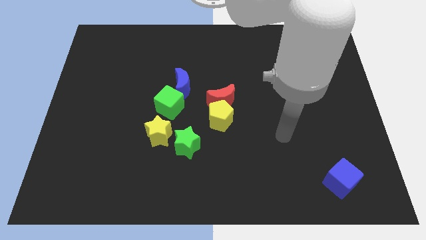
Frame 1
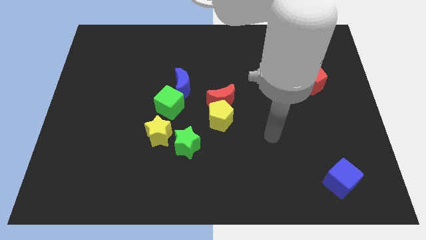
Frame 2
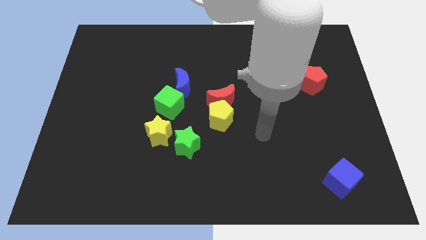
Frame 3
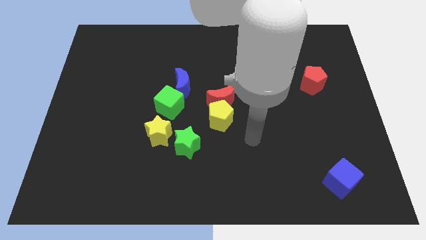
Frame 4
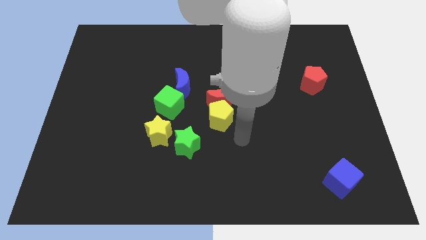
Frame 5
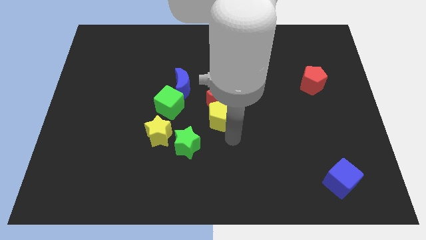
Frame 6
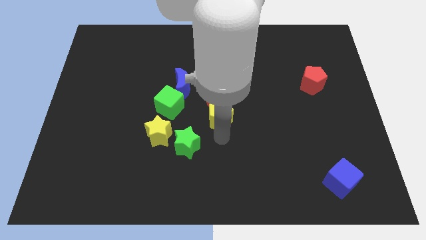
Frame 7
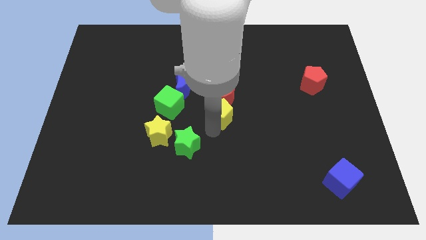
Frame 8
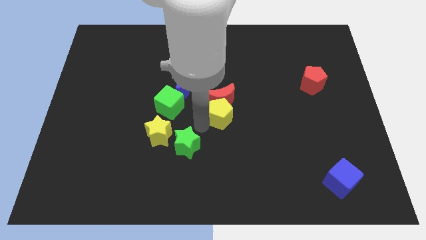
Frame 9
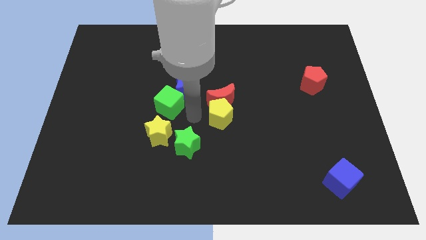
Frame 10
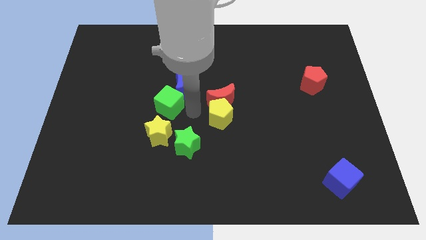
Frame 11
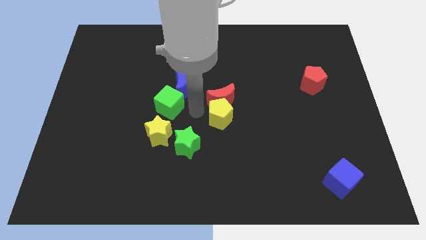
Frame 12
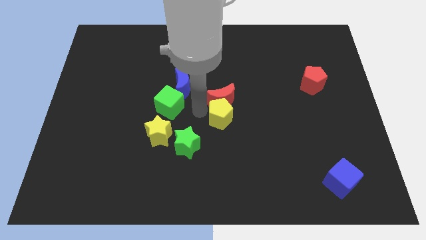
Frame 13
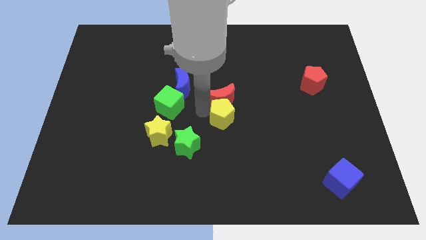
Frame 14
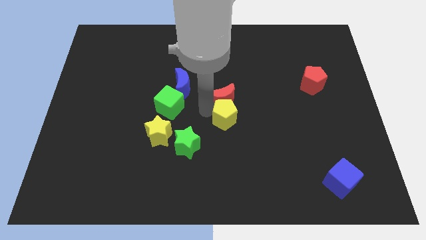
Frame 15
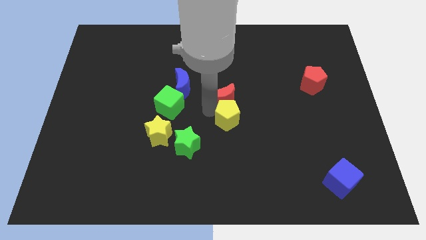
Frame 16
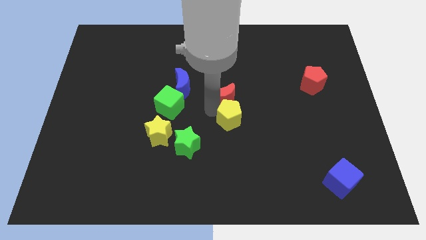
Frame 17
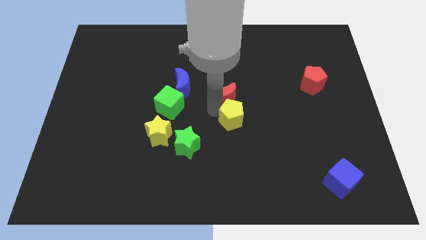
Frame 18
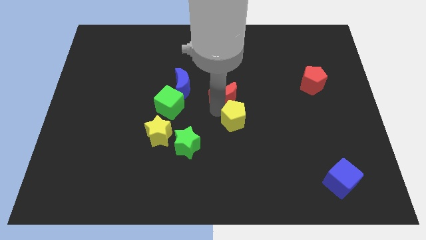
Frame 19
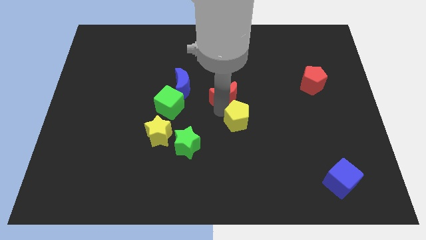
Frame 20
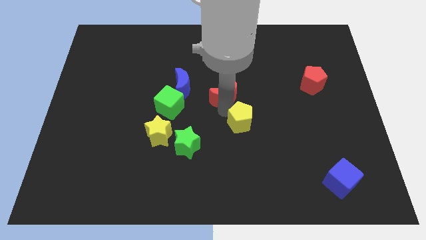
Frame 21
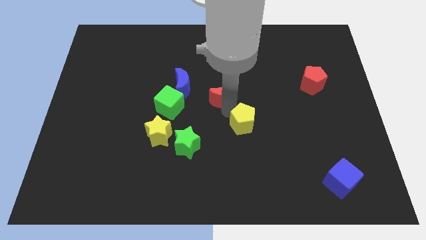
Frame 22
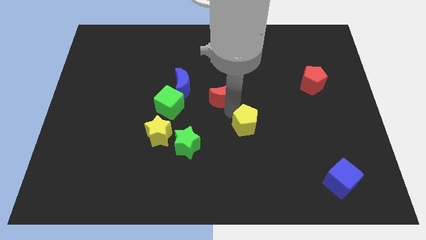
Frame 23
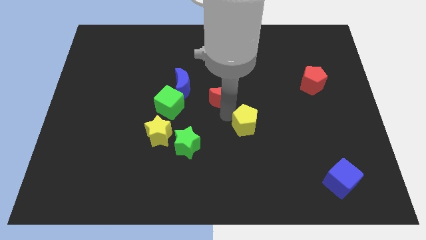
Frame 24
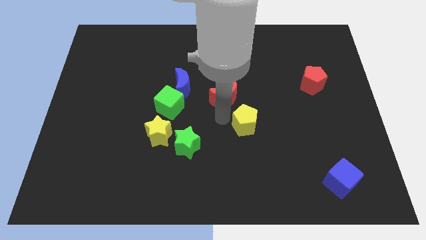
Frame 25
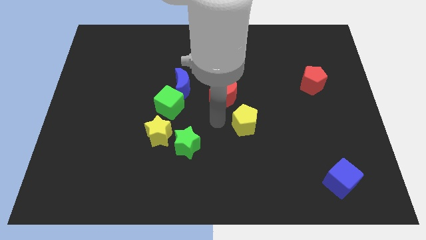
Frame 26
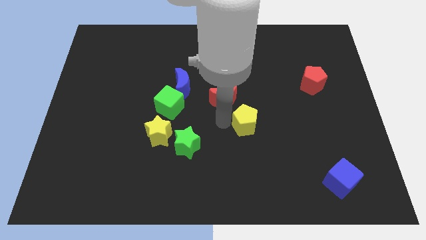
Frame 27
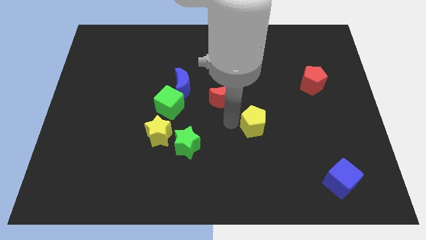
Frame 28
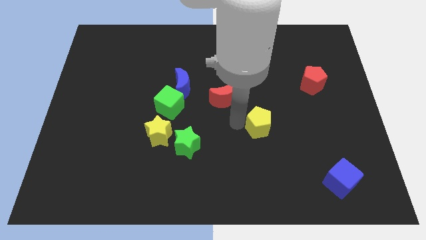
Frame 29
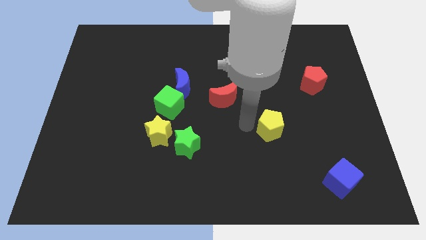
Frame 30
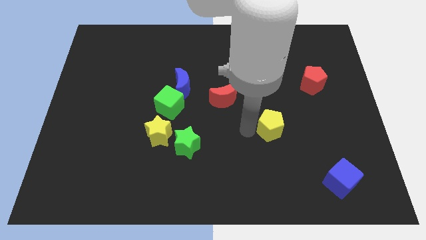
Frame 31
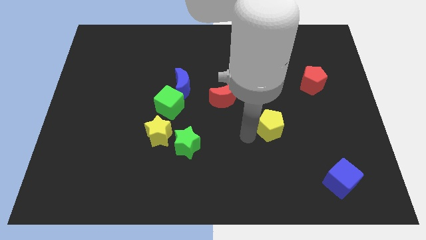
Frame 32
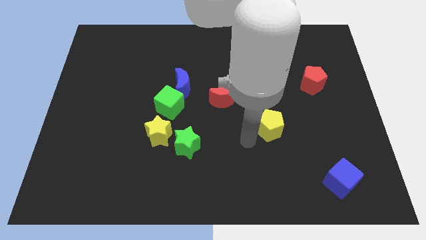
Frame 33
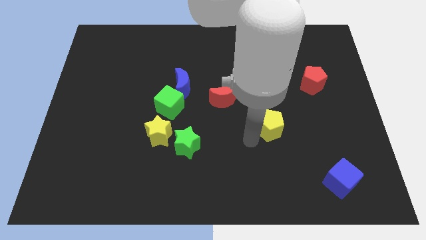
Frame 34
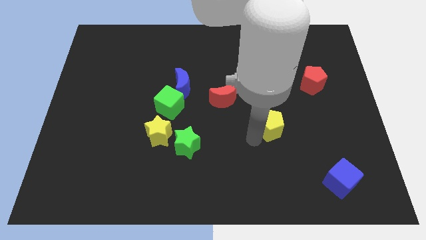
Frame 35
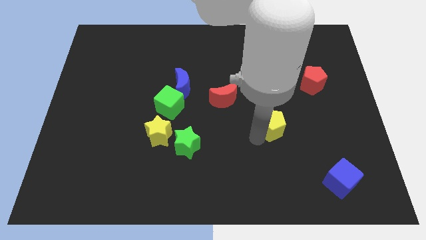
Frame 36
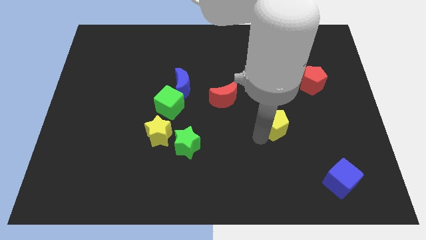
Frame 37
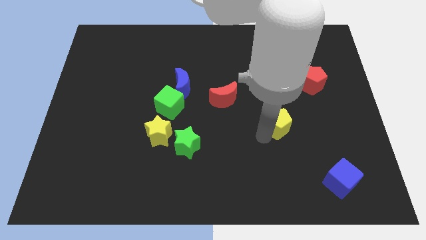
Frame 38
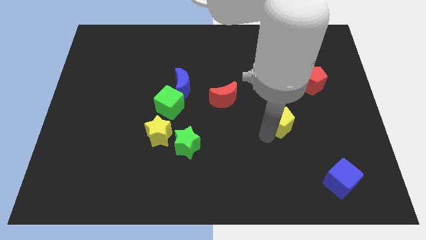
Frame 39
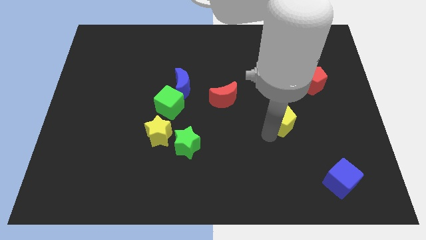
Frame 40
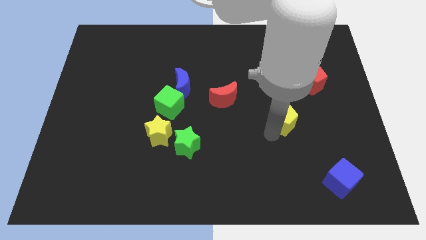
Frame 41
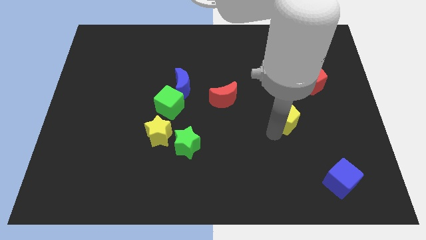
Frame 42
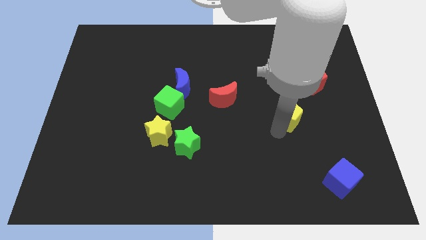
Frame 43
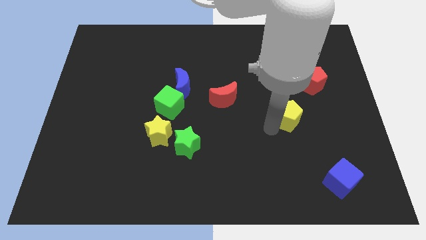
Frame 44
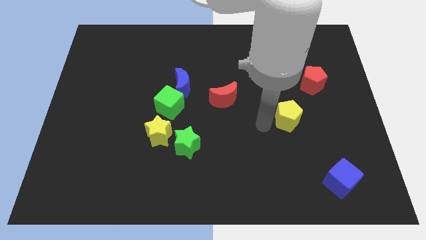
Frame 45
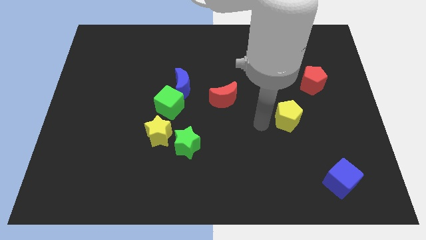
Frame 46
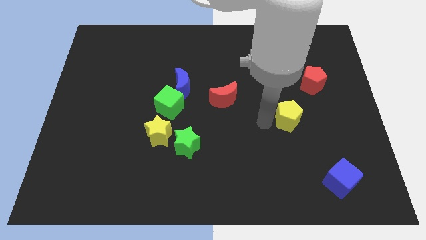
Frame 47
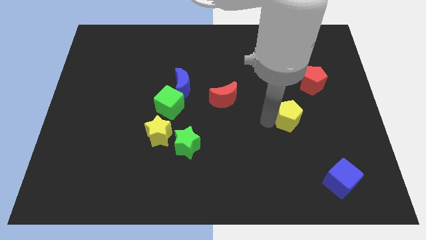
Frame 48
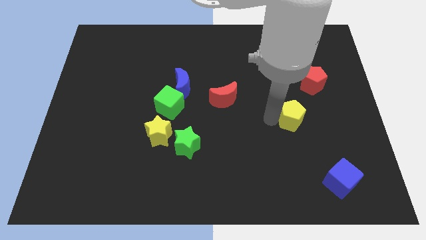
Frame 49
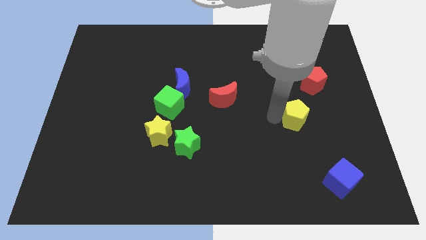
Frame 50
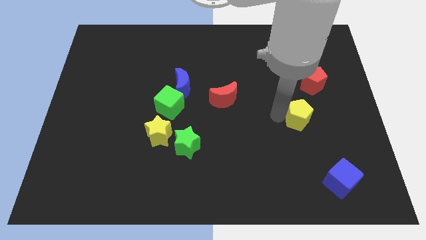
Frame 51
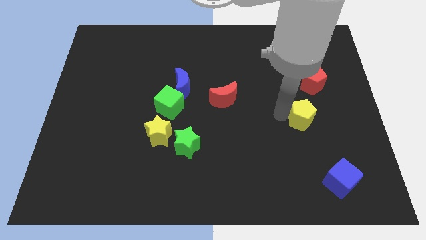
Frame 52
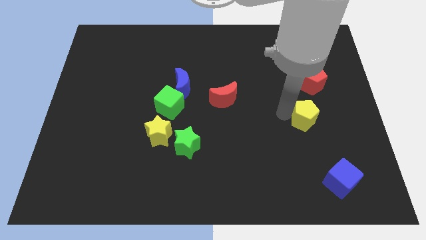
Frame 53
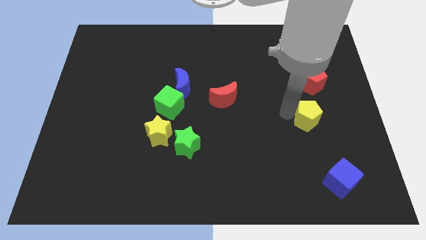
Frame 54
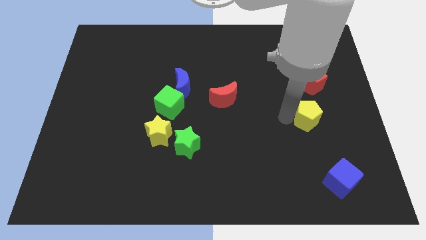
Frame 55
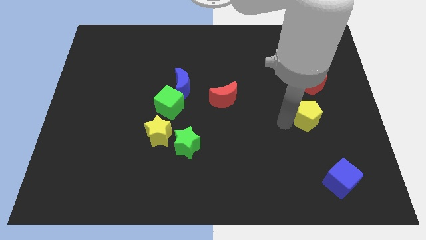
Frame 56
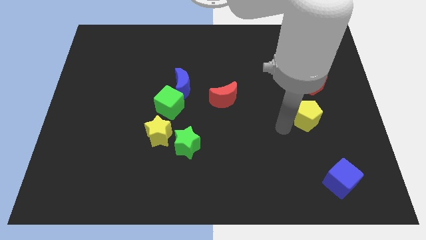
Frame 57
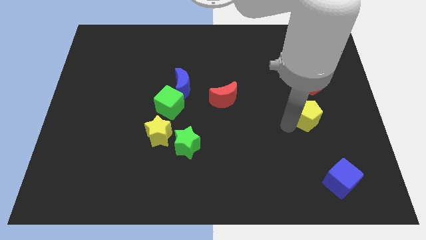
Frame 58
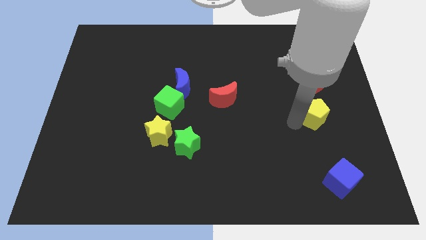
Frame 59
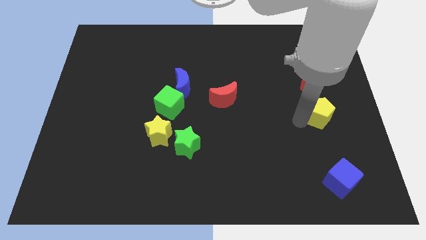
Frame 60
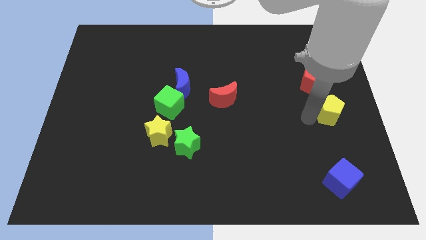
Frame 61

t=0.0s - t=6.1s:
slide the yellow pentagon to the right side of the board

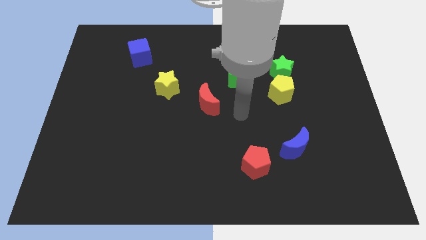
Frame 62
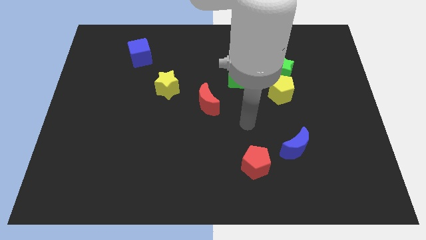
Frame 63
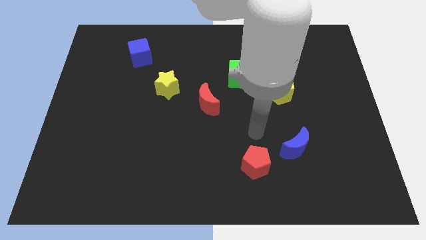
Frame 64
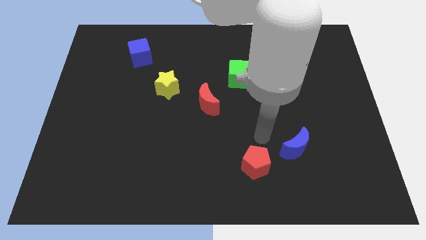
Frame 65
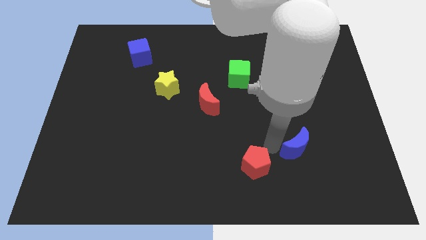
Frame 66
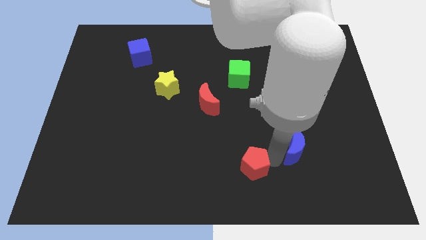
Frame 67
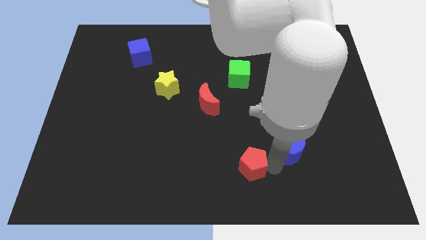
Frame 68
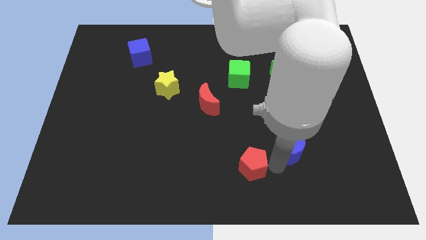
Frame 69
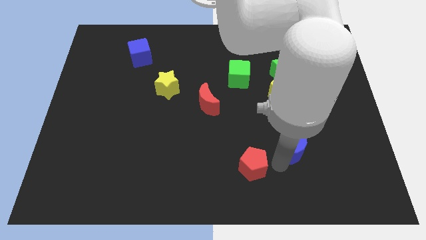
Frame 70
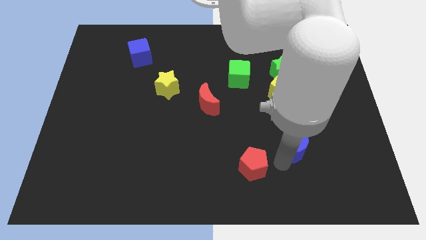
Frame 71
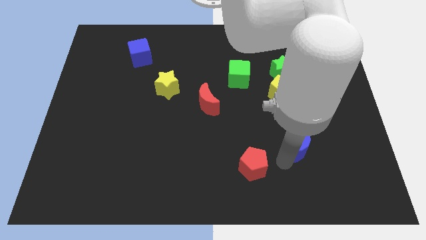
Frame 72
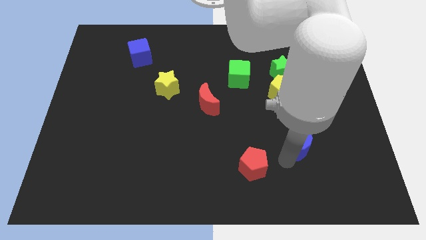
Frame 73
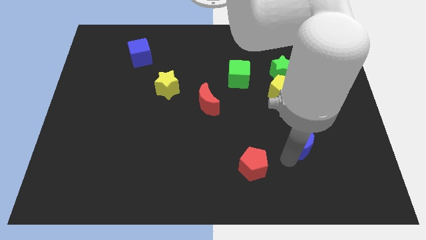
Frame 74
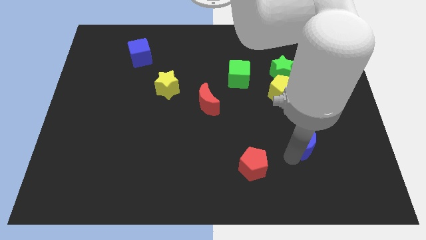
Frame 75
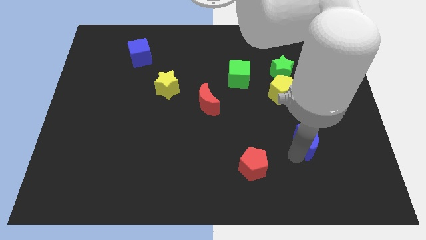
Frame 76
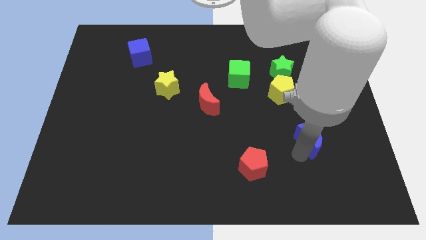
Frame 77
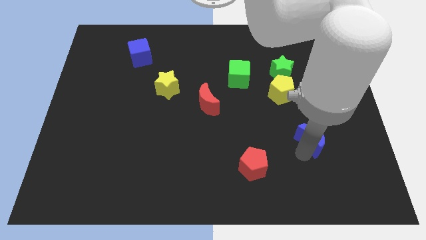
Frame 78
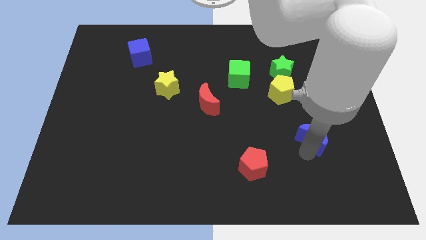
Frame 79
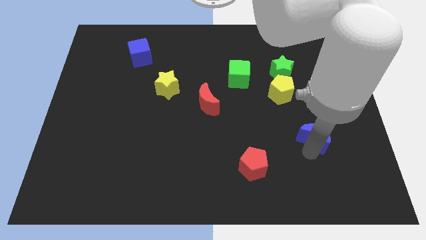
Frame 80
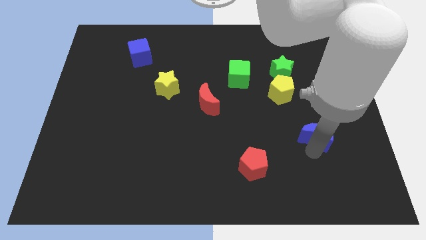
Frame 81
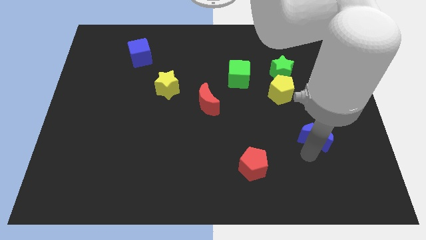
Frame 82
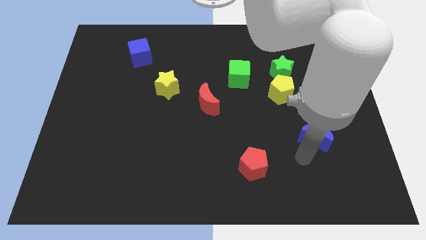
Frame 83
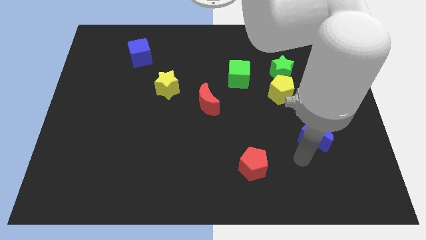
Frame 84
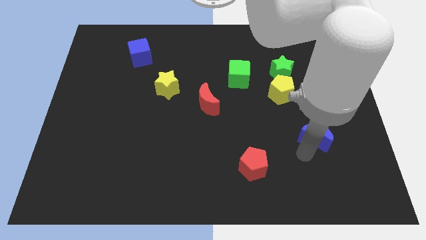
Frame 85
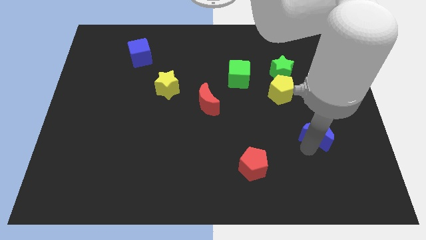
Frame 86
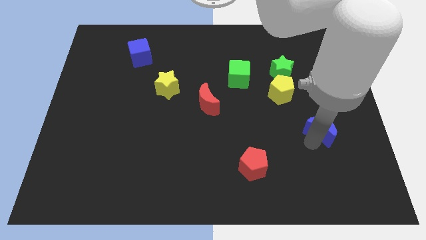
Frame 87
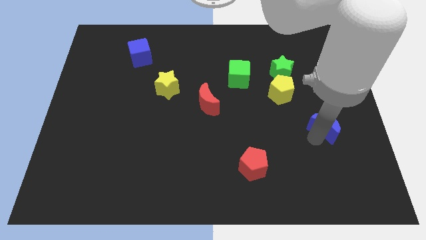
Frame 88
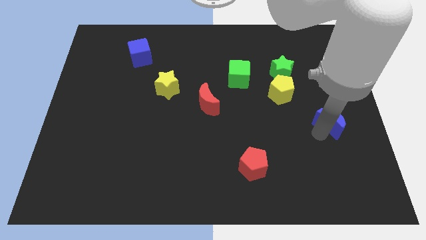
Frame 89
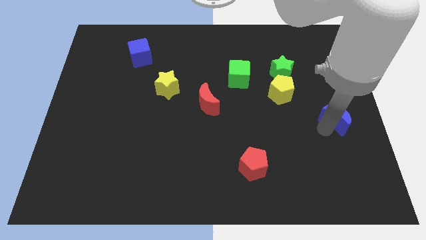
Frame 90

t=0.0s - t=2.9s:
slide the blue moon to the right side of the board
